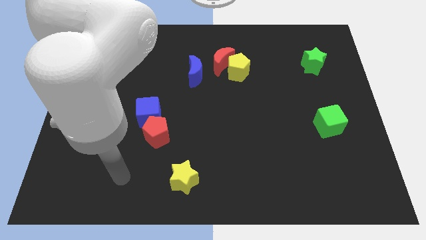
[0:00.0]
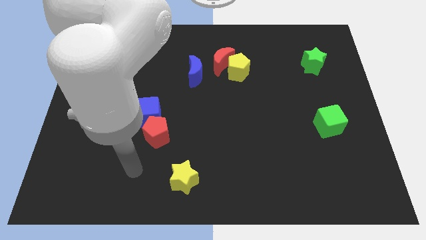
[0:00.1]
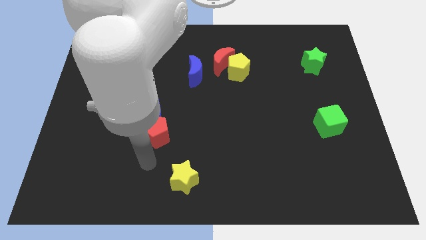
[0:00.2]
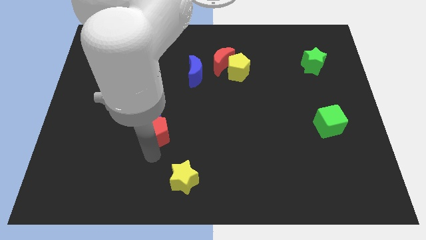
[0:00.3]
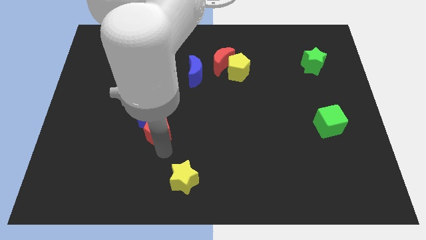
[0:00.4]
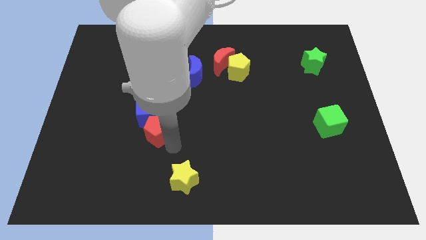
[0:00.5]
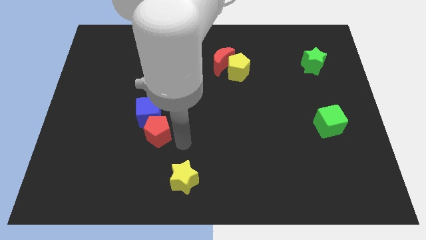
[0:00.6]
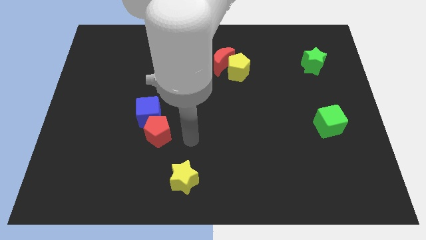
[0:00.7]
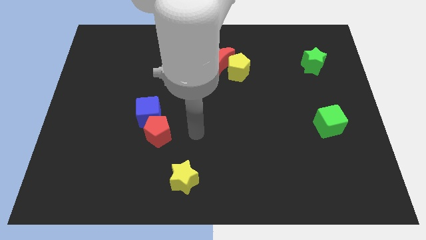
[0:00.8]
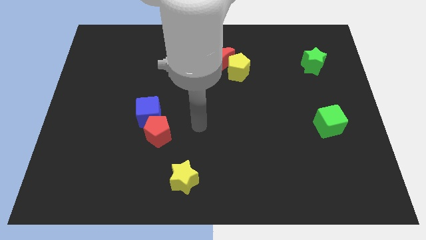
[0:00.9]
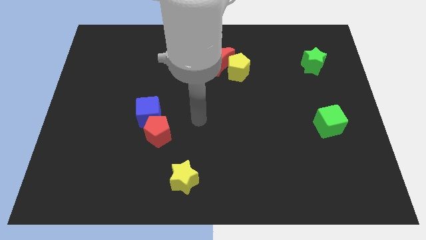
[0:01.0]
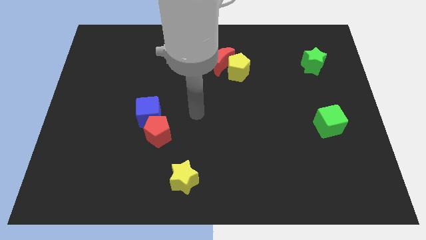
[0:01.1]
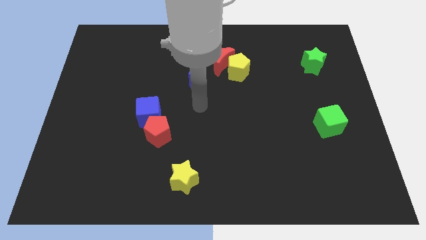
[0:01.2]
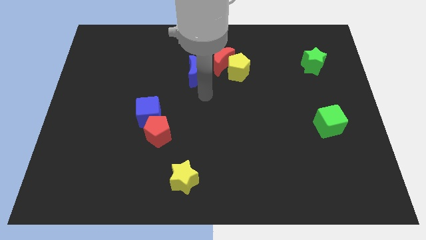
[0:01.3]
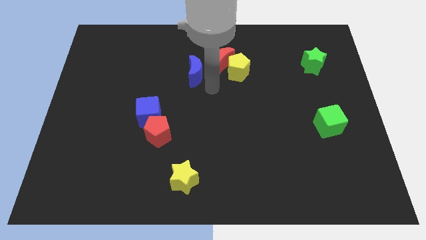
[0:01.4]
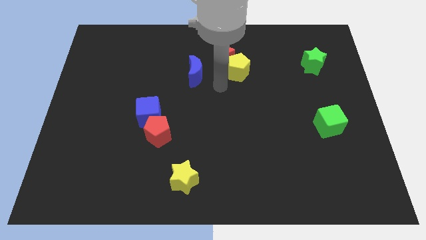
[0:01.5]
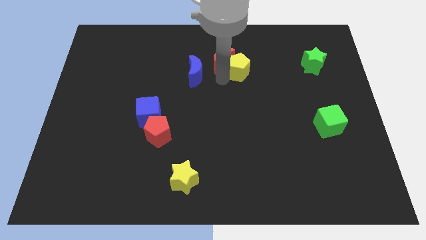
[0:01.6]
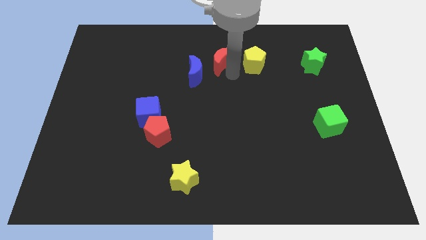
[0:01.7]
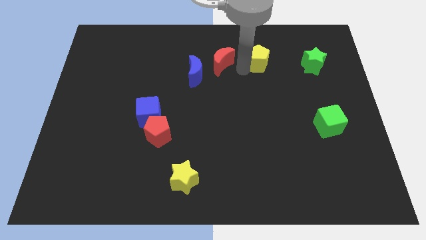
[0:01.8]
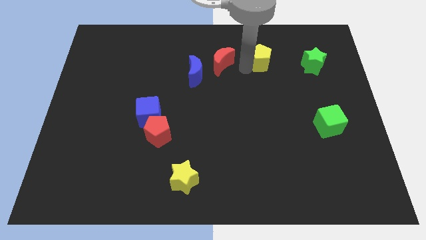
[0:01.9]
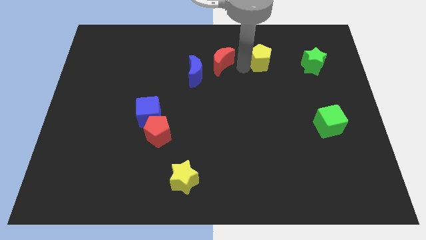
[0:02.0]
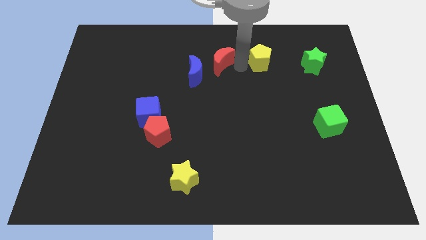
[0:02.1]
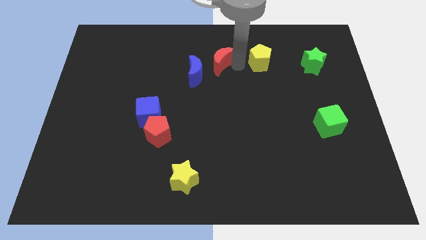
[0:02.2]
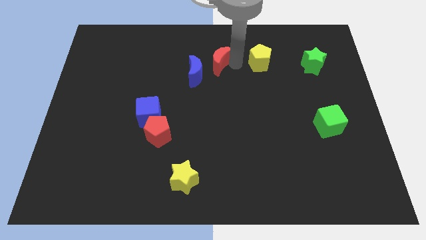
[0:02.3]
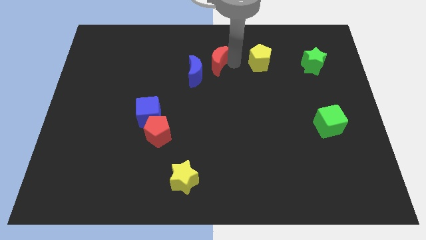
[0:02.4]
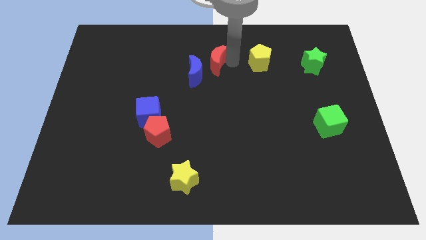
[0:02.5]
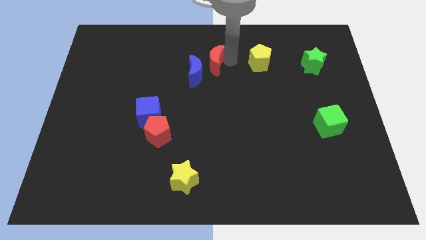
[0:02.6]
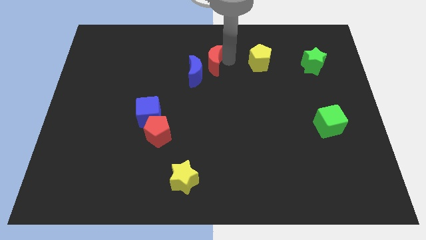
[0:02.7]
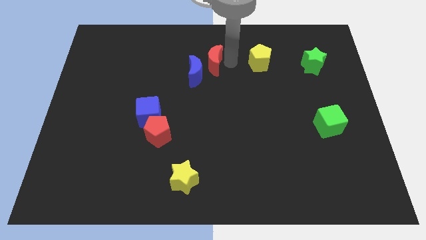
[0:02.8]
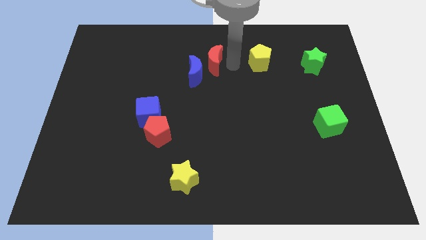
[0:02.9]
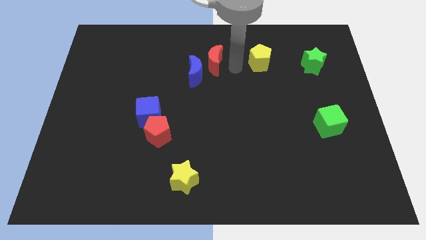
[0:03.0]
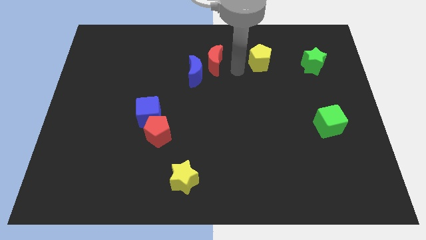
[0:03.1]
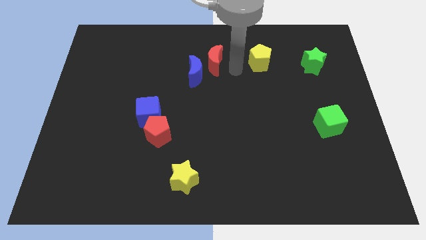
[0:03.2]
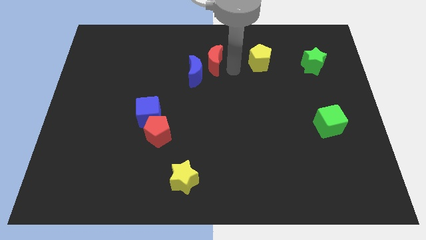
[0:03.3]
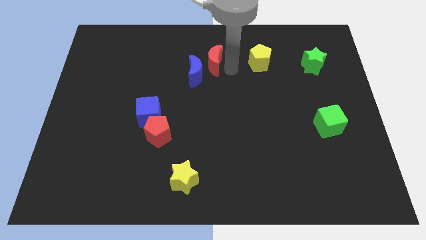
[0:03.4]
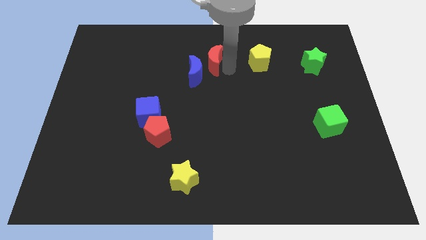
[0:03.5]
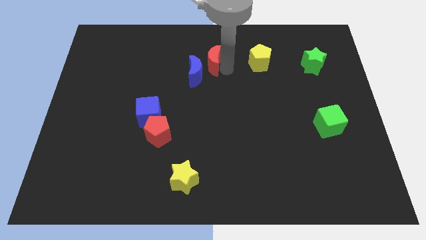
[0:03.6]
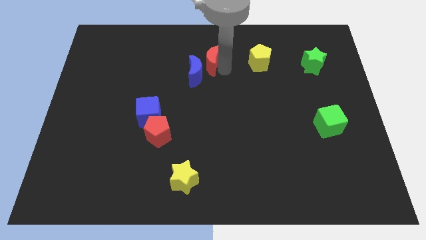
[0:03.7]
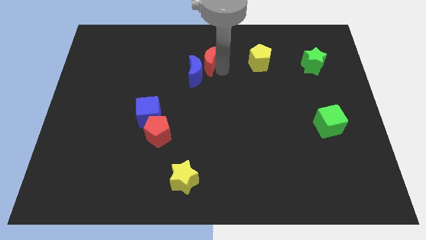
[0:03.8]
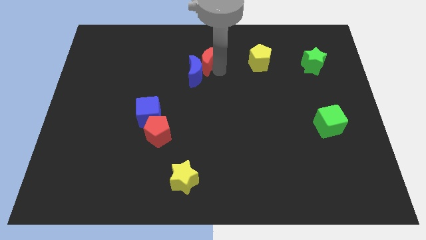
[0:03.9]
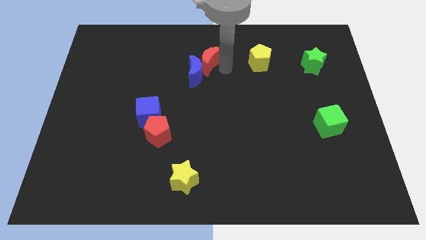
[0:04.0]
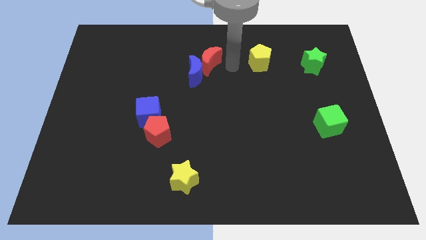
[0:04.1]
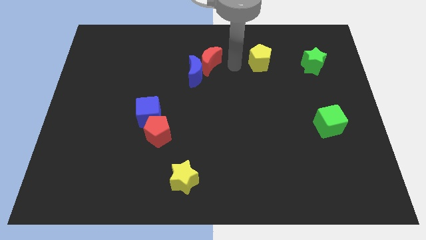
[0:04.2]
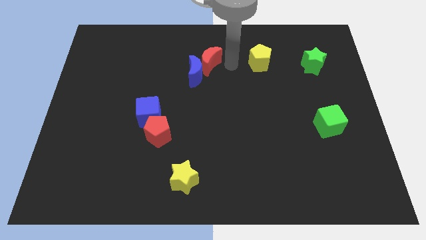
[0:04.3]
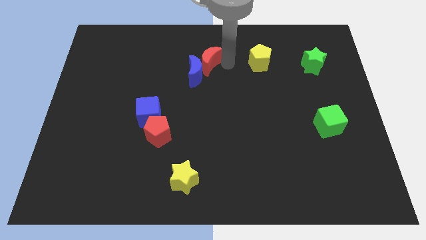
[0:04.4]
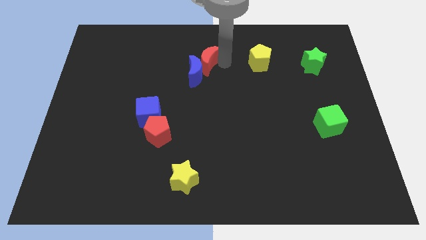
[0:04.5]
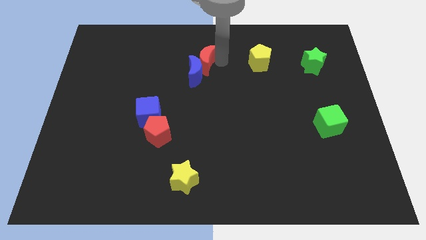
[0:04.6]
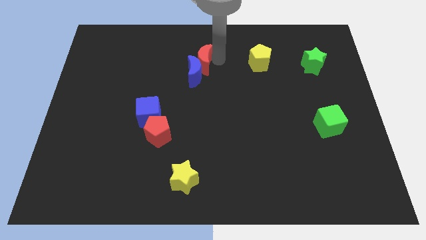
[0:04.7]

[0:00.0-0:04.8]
move the red moon to the top left of the blue moon

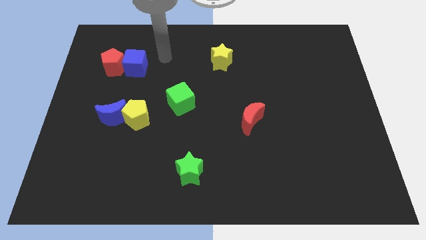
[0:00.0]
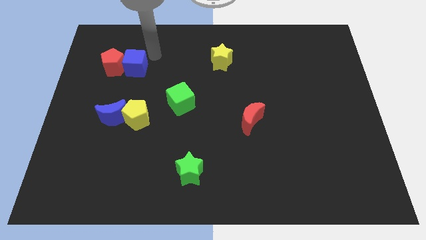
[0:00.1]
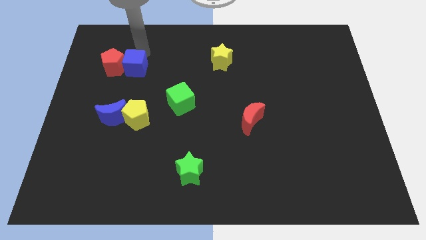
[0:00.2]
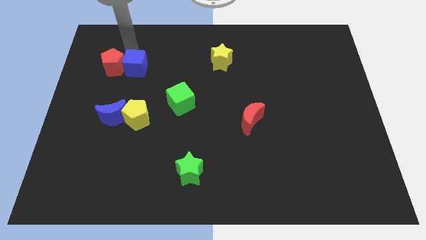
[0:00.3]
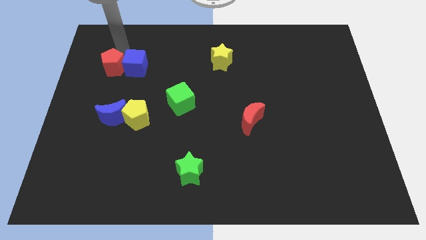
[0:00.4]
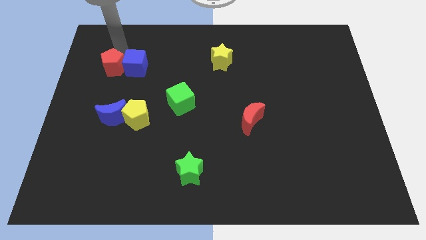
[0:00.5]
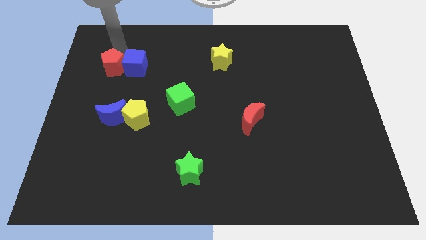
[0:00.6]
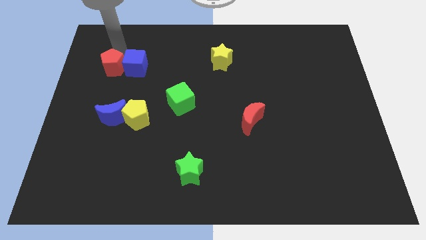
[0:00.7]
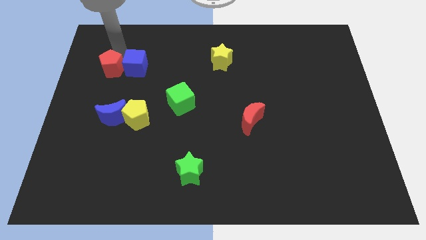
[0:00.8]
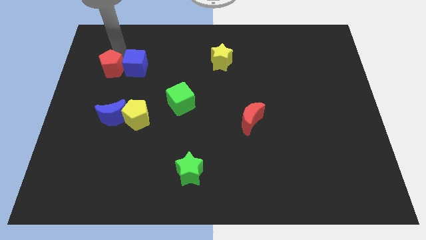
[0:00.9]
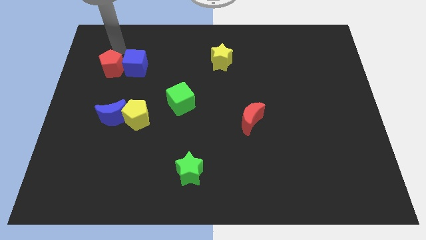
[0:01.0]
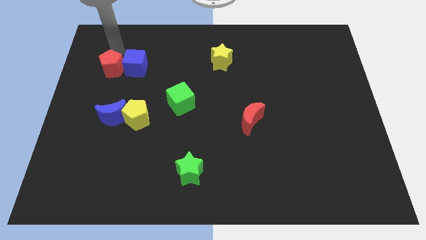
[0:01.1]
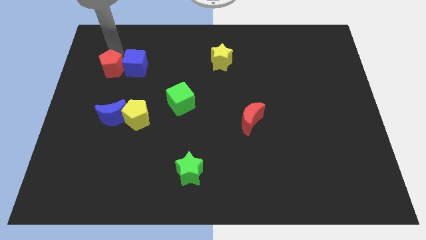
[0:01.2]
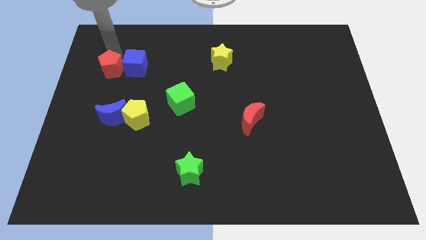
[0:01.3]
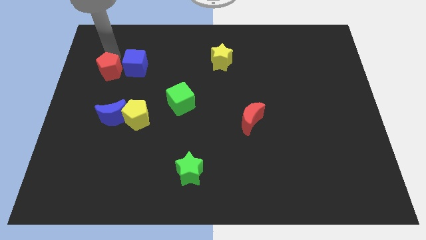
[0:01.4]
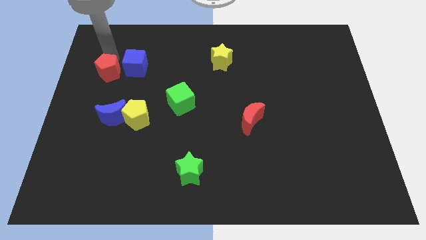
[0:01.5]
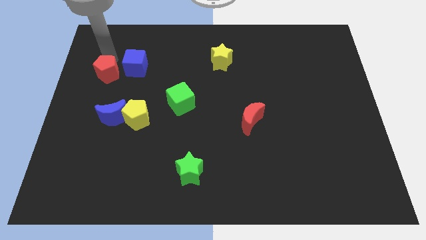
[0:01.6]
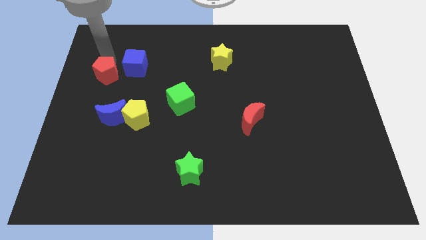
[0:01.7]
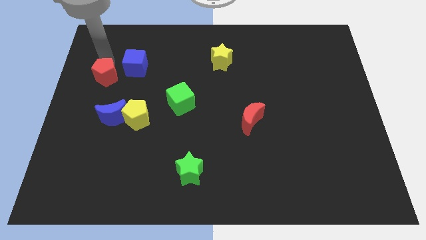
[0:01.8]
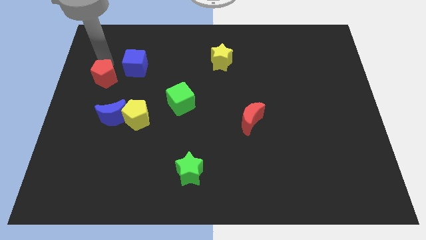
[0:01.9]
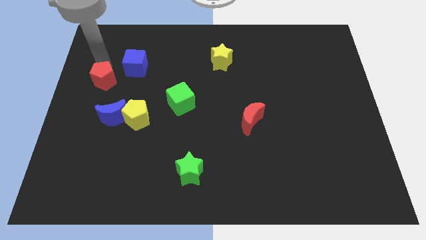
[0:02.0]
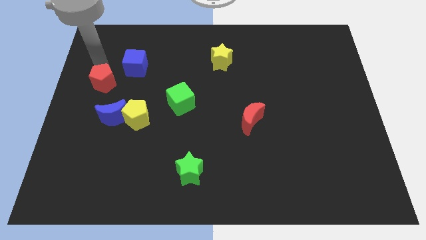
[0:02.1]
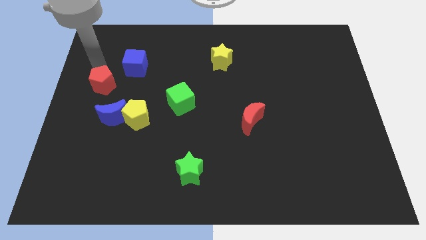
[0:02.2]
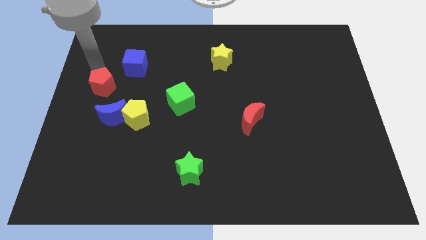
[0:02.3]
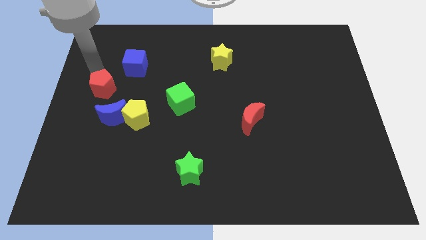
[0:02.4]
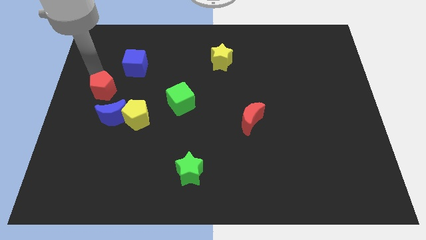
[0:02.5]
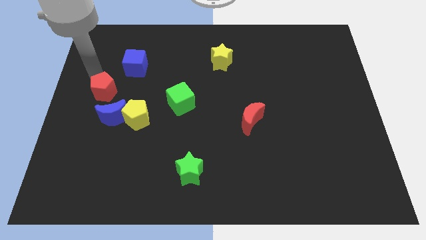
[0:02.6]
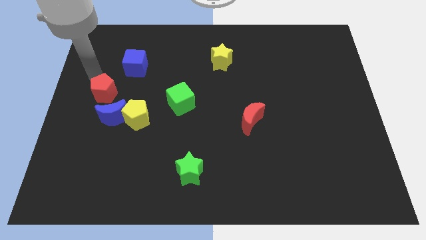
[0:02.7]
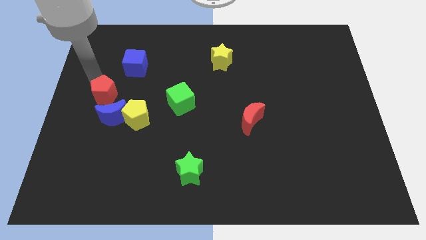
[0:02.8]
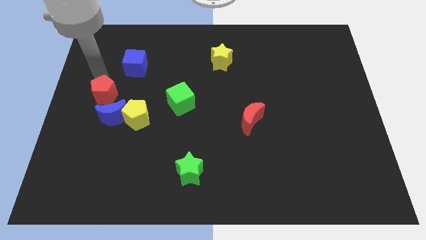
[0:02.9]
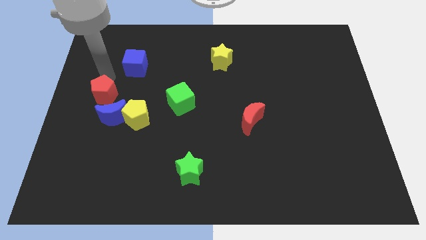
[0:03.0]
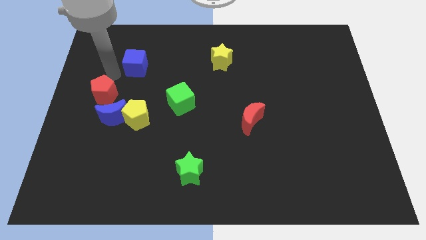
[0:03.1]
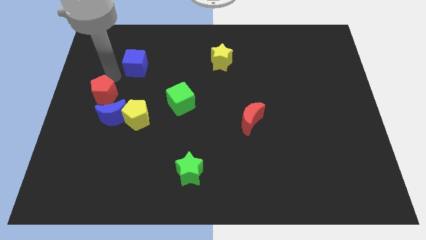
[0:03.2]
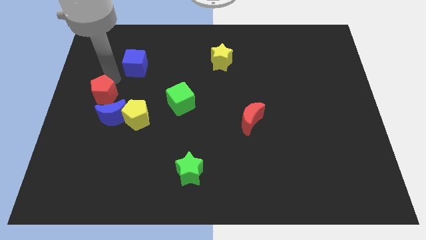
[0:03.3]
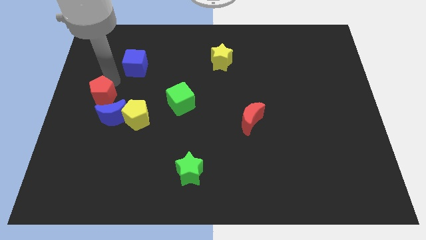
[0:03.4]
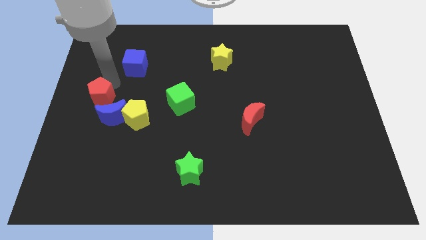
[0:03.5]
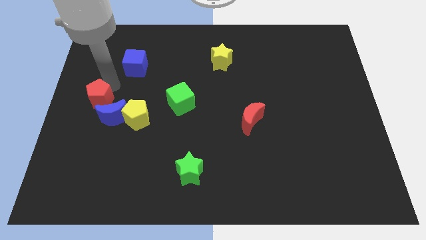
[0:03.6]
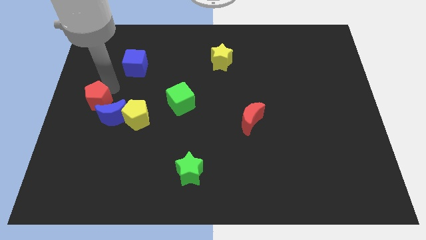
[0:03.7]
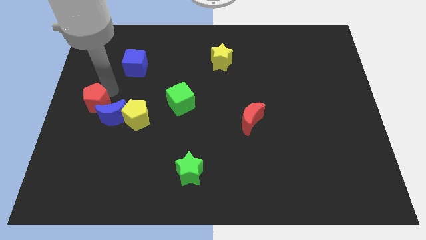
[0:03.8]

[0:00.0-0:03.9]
put the red pentagon left of the yellow pentagon
